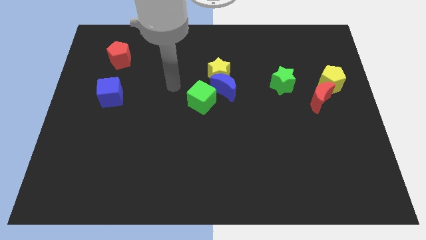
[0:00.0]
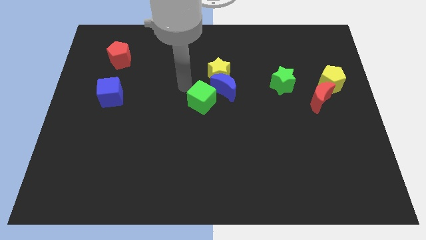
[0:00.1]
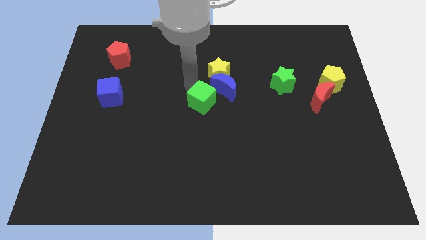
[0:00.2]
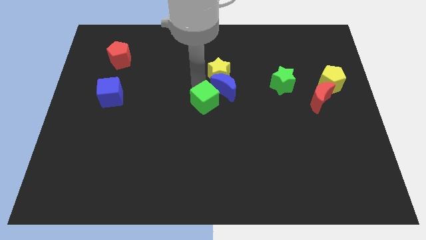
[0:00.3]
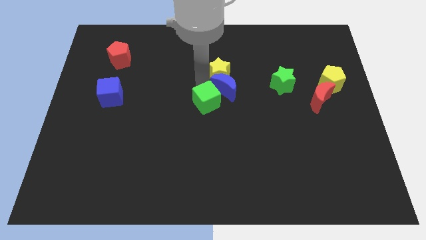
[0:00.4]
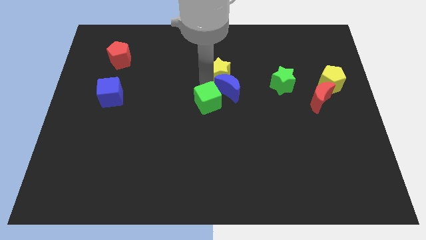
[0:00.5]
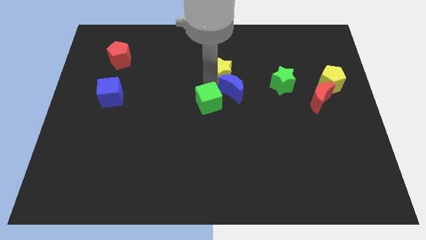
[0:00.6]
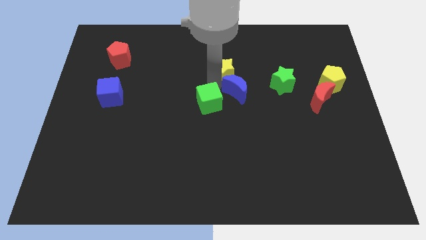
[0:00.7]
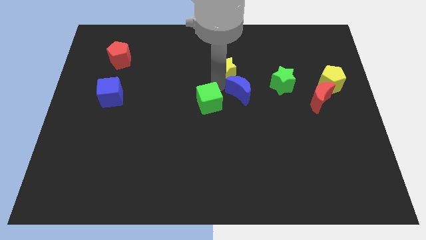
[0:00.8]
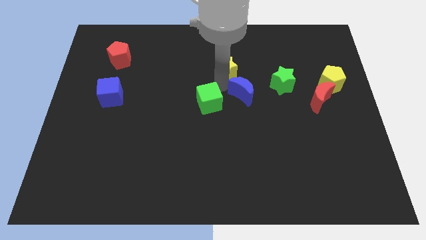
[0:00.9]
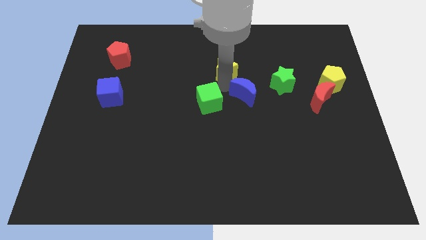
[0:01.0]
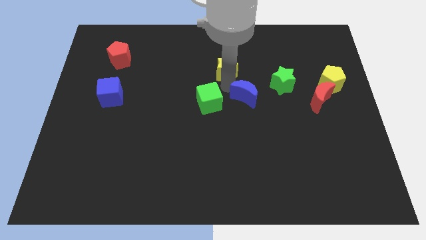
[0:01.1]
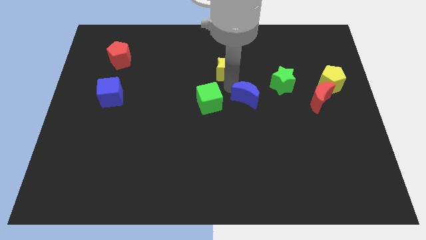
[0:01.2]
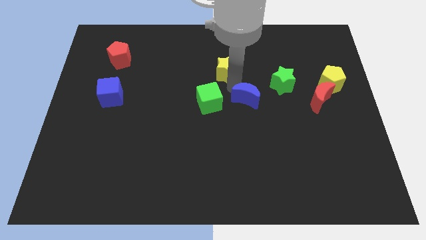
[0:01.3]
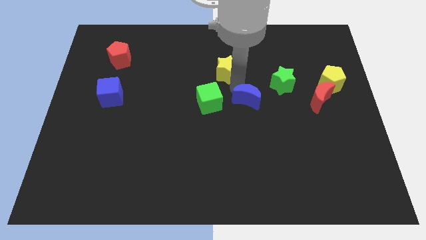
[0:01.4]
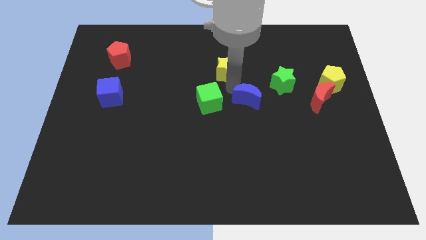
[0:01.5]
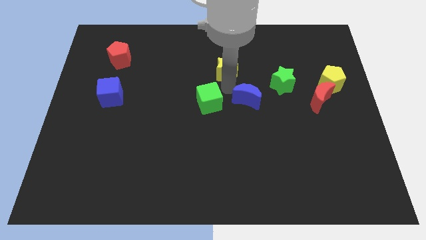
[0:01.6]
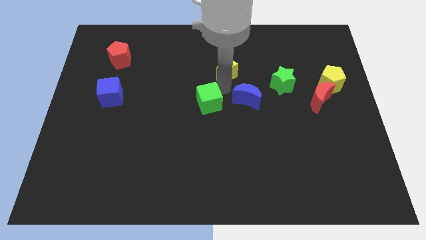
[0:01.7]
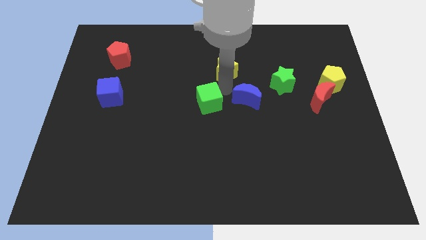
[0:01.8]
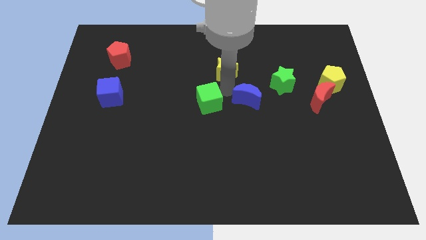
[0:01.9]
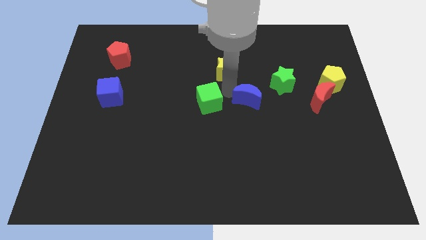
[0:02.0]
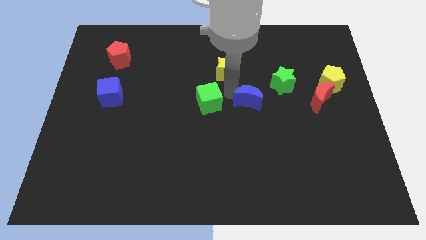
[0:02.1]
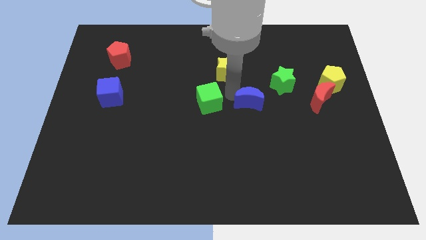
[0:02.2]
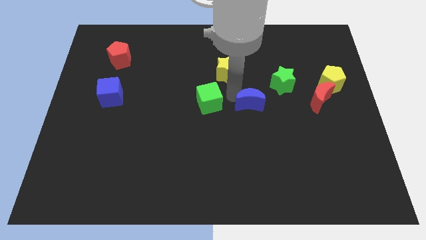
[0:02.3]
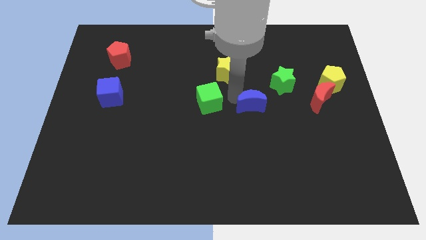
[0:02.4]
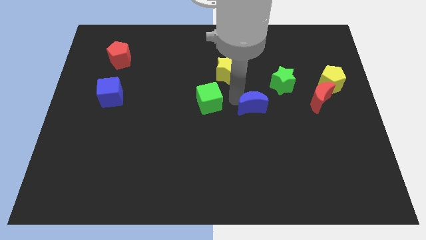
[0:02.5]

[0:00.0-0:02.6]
separate the blue moon from the yellow star and green cube

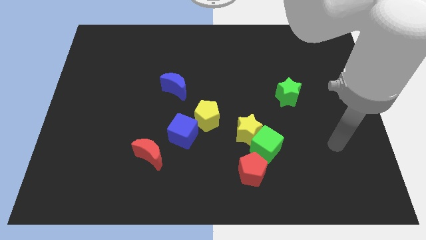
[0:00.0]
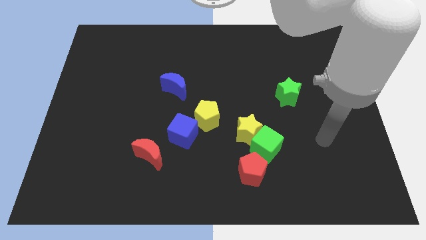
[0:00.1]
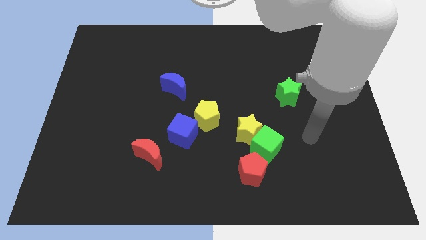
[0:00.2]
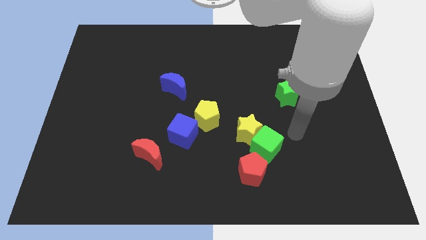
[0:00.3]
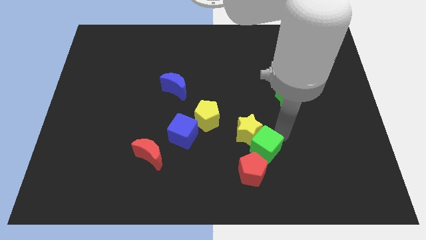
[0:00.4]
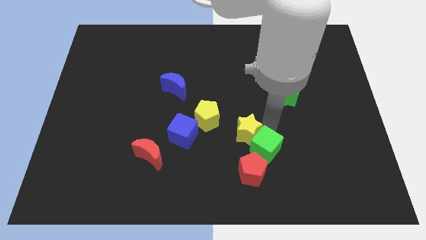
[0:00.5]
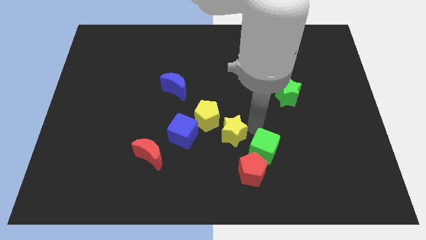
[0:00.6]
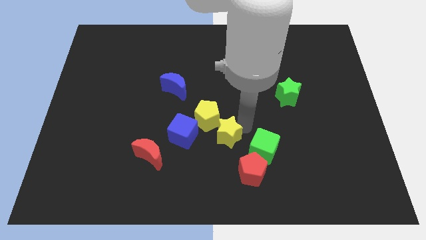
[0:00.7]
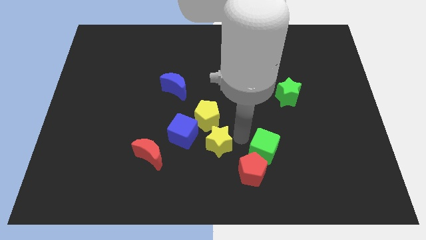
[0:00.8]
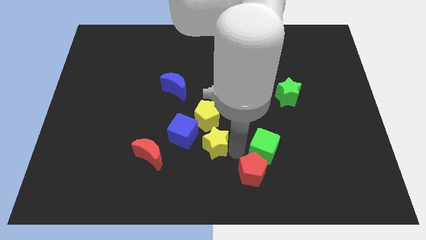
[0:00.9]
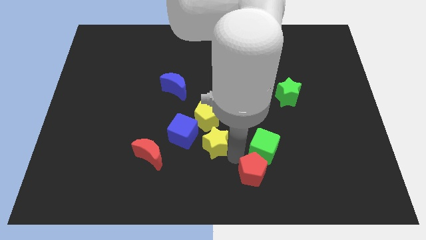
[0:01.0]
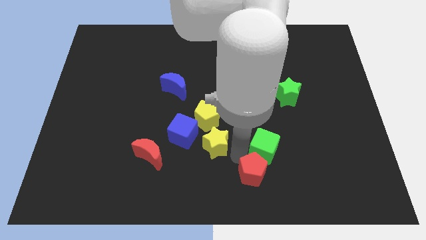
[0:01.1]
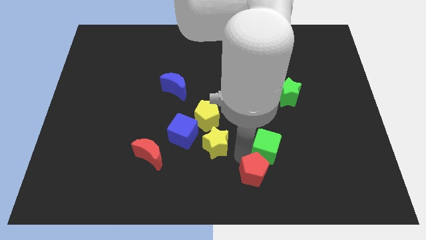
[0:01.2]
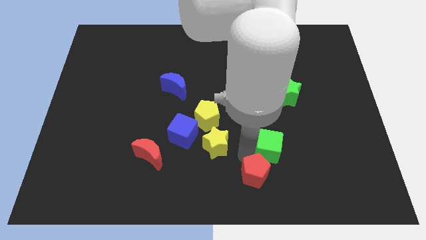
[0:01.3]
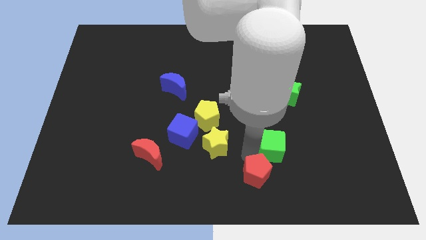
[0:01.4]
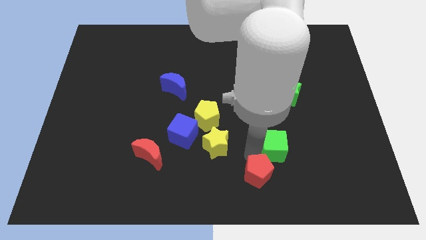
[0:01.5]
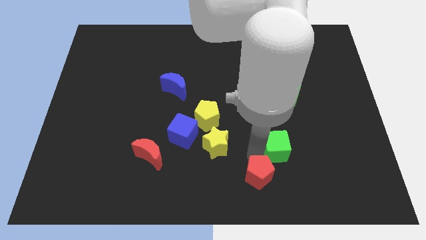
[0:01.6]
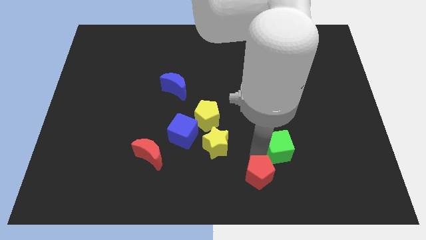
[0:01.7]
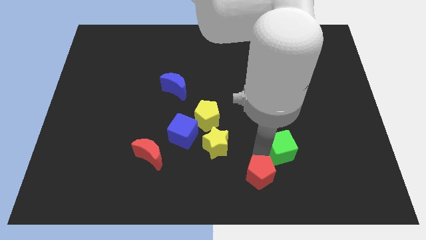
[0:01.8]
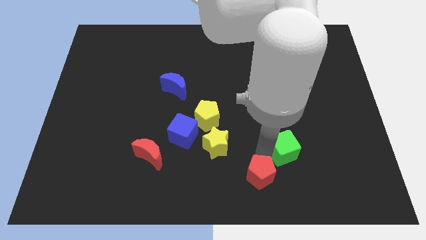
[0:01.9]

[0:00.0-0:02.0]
move the green cube away from the yellow star and red pentagon

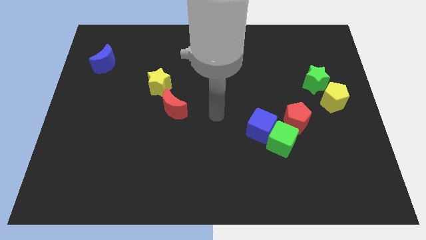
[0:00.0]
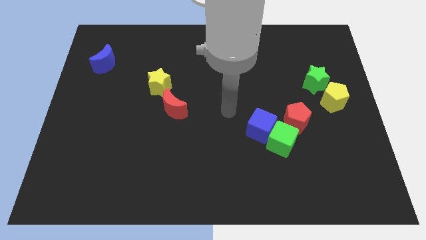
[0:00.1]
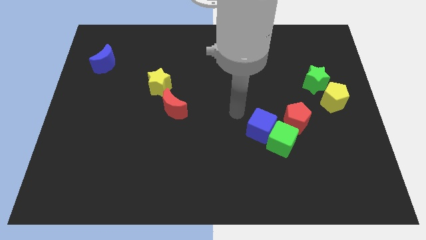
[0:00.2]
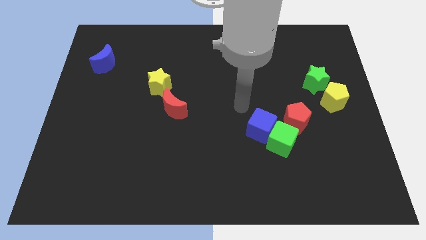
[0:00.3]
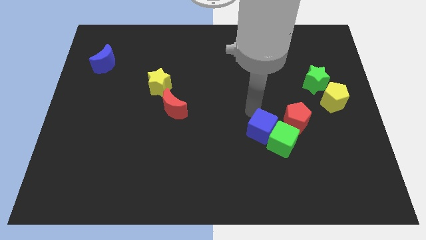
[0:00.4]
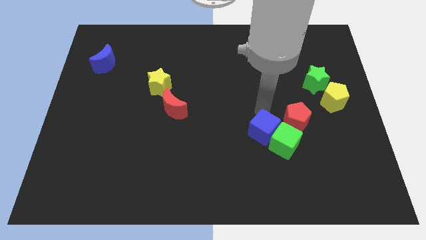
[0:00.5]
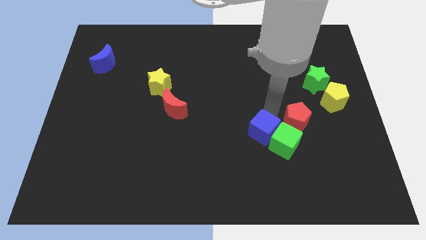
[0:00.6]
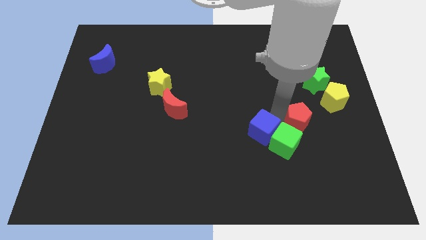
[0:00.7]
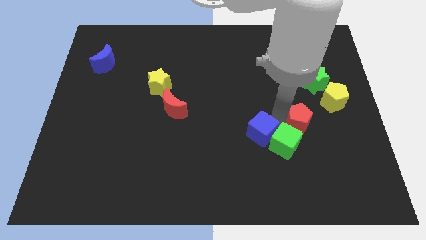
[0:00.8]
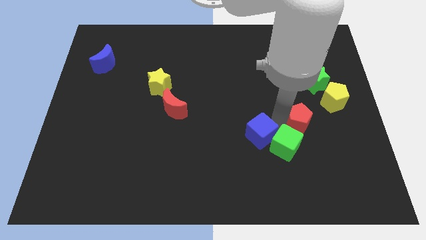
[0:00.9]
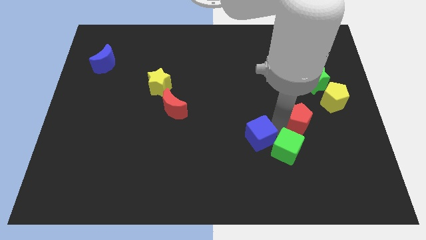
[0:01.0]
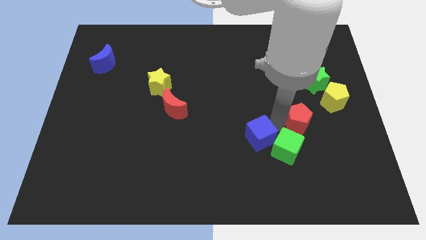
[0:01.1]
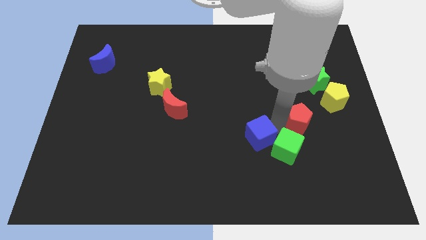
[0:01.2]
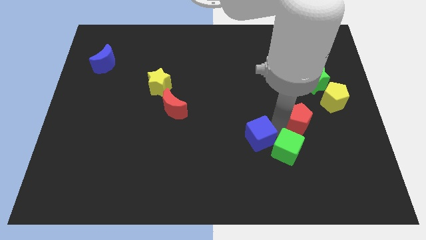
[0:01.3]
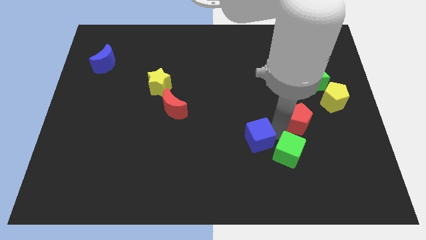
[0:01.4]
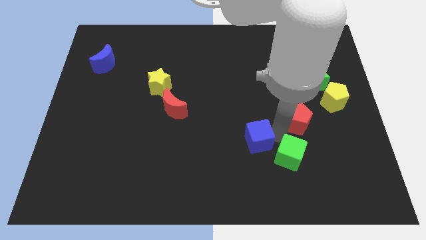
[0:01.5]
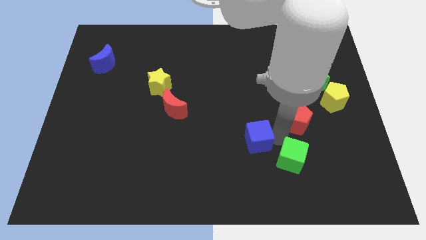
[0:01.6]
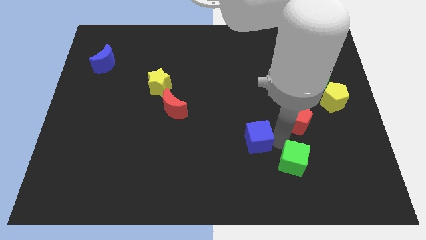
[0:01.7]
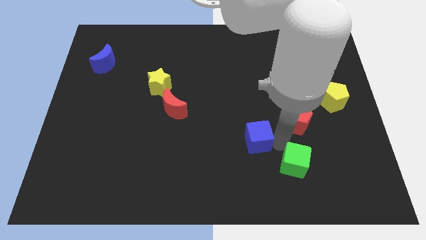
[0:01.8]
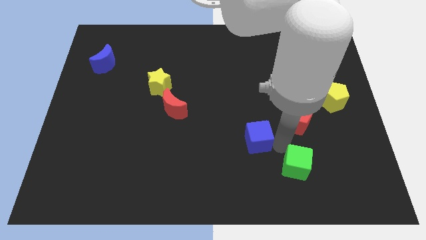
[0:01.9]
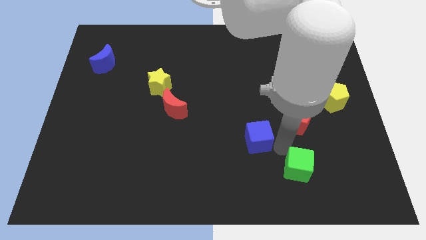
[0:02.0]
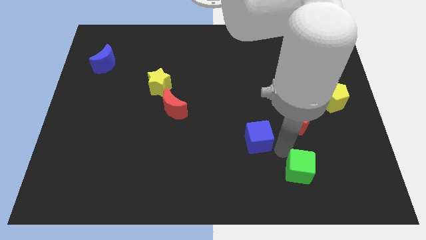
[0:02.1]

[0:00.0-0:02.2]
pull the green cube apart from the blue cube and red pentagon

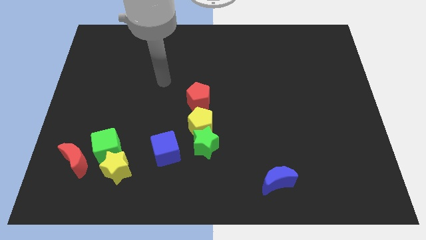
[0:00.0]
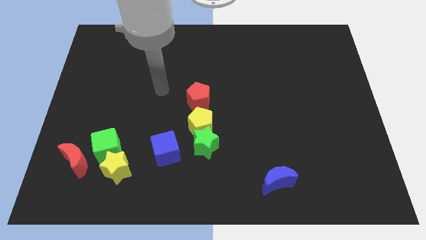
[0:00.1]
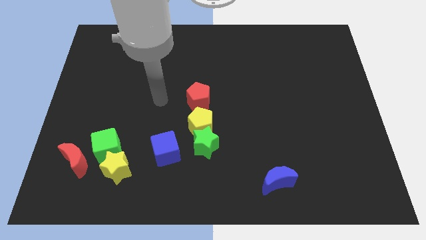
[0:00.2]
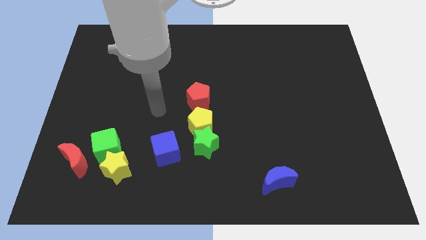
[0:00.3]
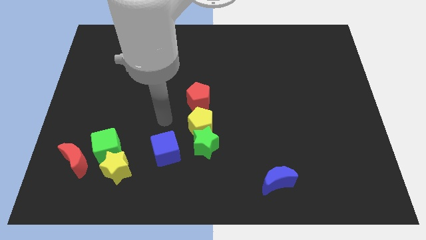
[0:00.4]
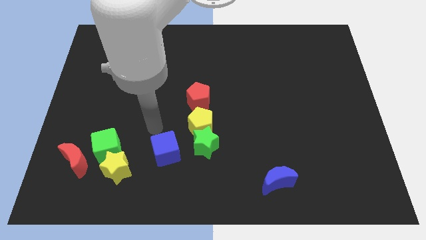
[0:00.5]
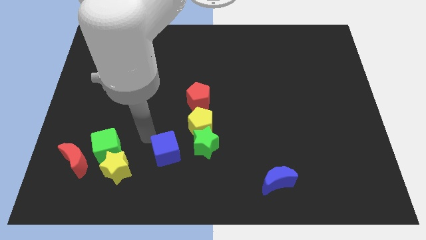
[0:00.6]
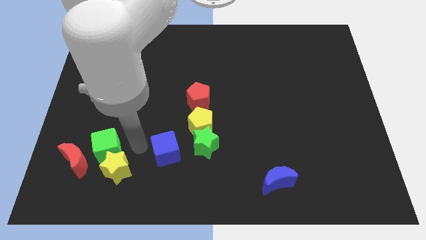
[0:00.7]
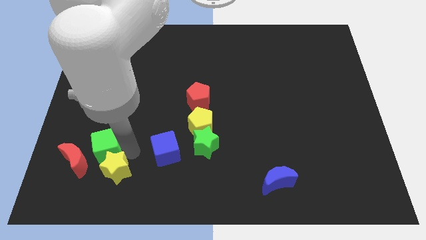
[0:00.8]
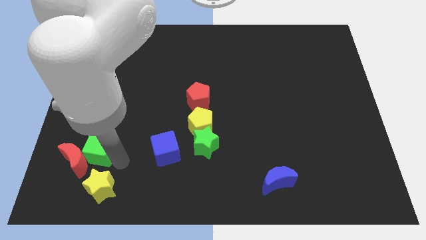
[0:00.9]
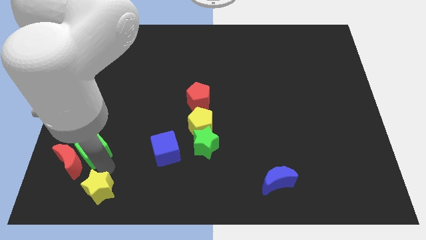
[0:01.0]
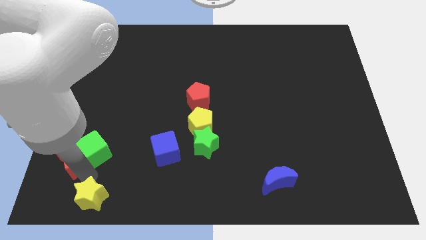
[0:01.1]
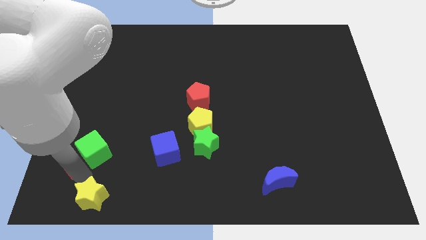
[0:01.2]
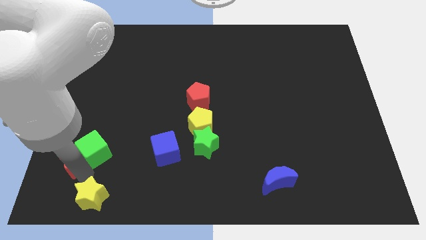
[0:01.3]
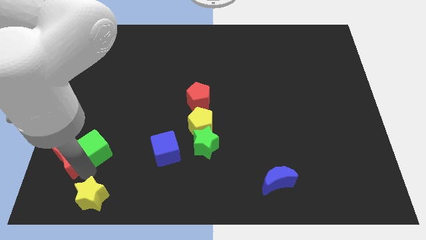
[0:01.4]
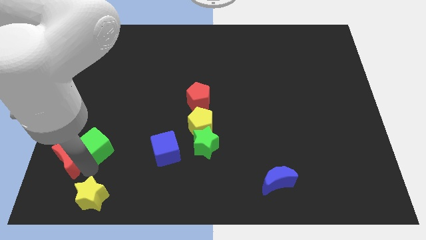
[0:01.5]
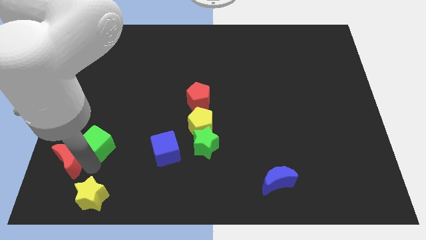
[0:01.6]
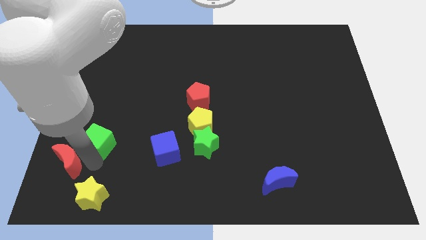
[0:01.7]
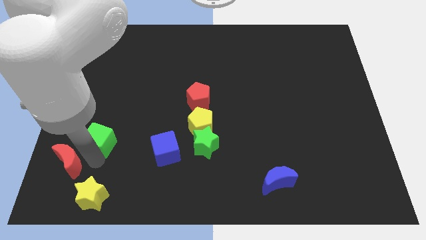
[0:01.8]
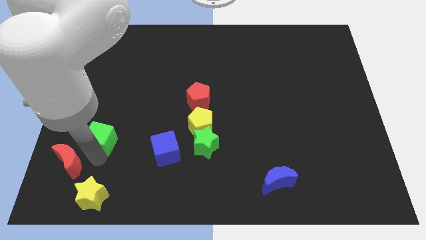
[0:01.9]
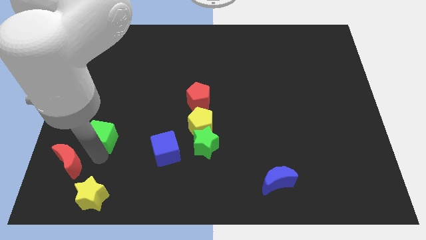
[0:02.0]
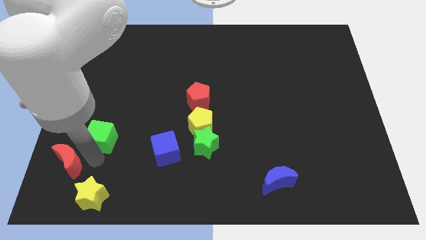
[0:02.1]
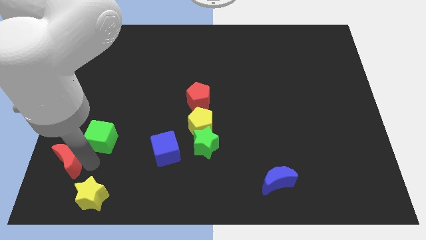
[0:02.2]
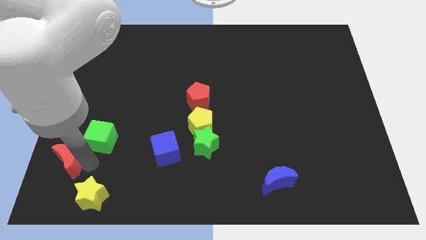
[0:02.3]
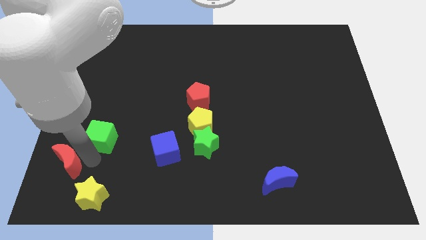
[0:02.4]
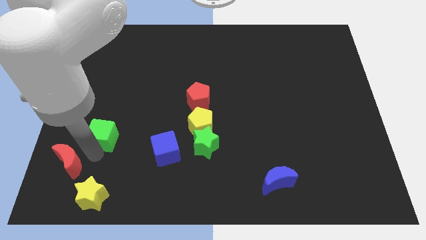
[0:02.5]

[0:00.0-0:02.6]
pull the green cube apart from the yellow star and red moon
